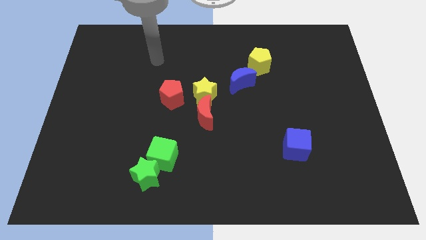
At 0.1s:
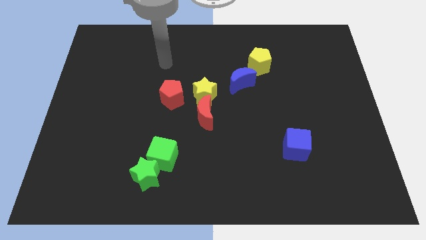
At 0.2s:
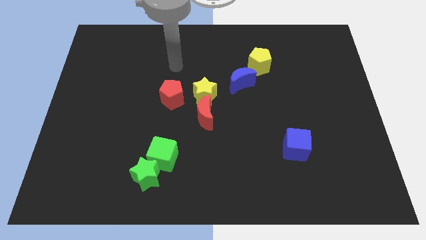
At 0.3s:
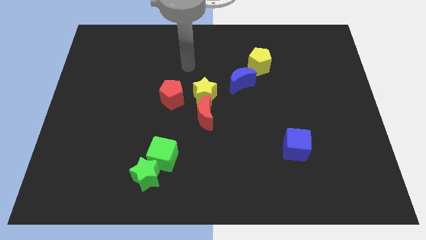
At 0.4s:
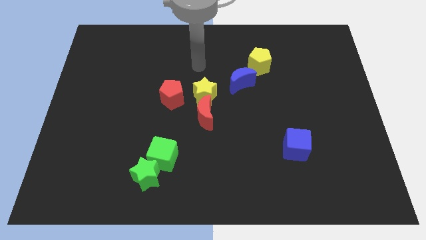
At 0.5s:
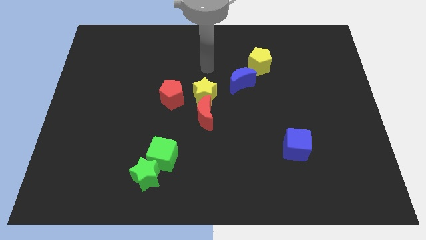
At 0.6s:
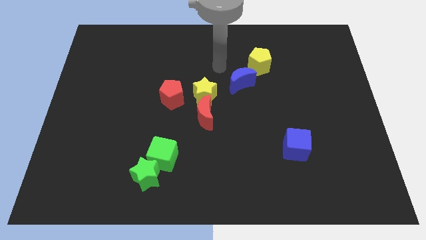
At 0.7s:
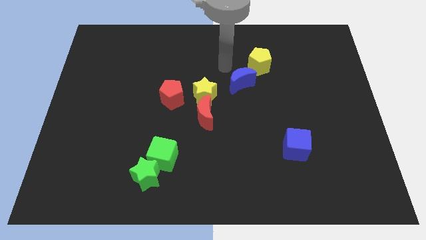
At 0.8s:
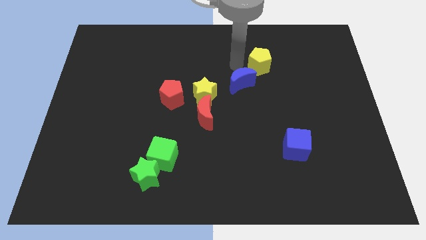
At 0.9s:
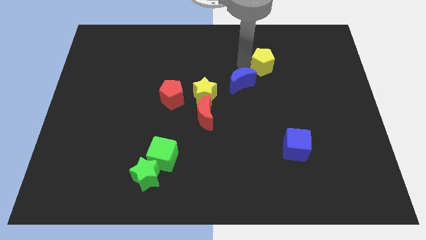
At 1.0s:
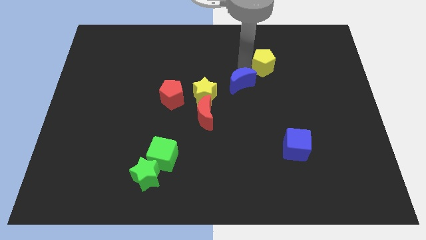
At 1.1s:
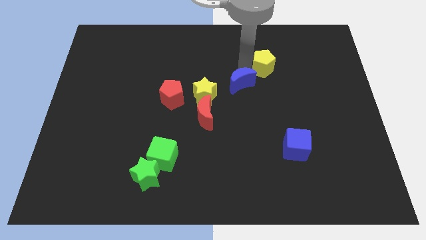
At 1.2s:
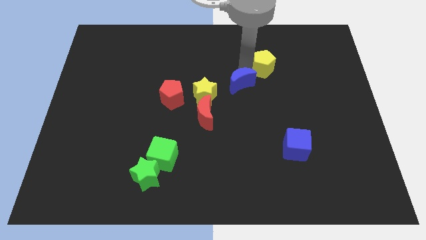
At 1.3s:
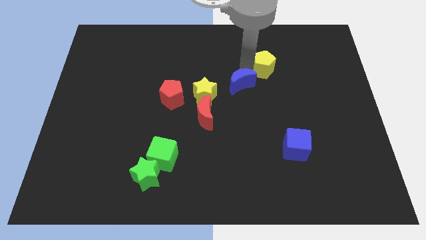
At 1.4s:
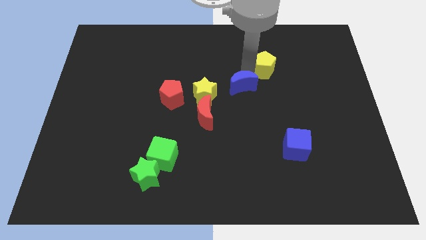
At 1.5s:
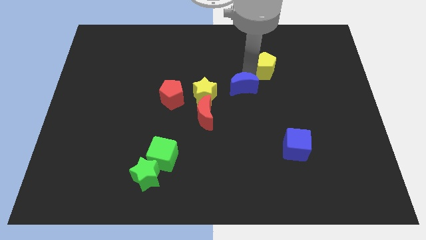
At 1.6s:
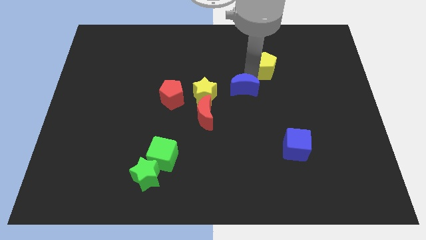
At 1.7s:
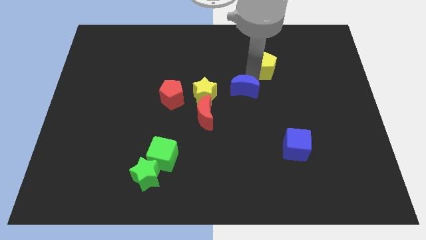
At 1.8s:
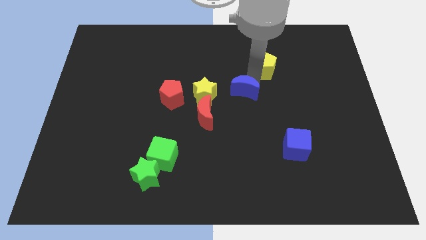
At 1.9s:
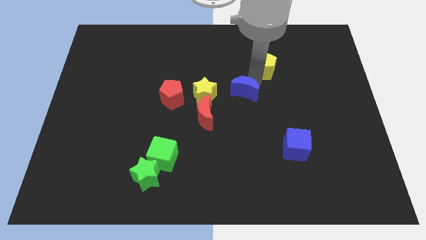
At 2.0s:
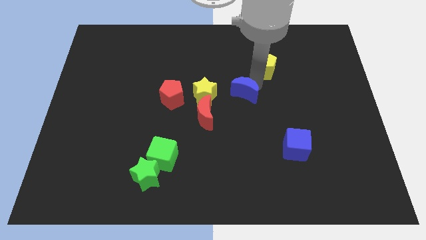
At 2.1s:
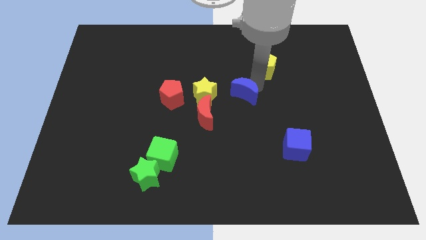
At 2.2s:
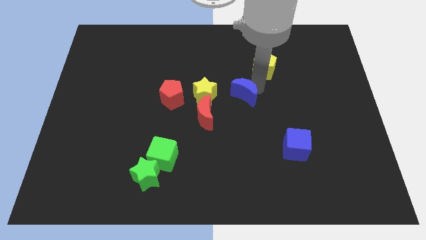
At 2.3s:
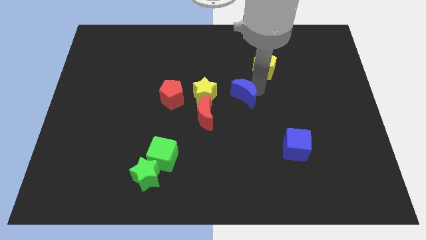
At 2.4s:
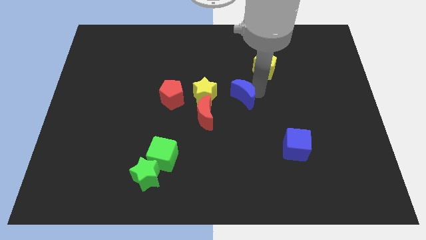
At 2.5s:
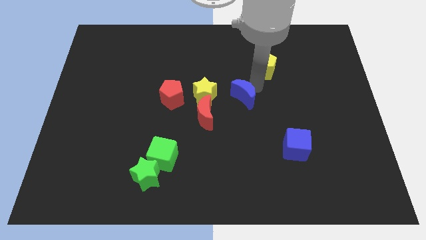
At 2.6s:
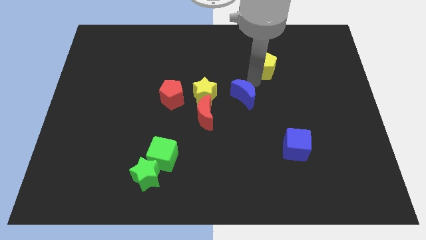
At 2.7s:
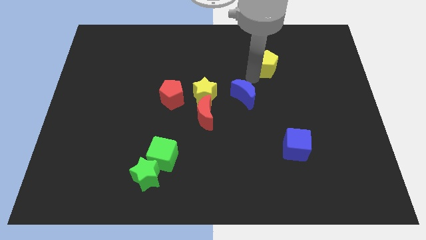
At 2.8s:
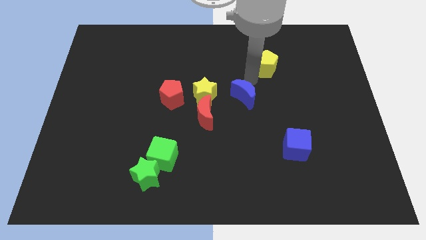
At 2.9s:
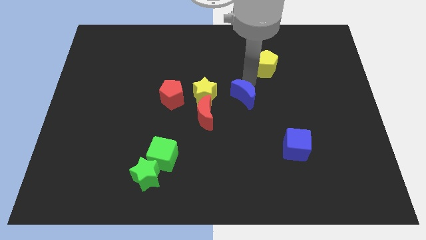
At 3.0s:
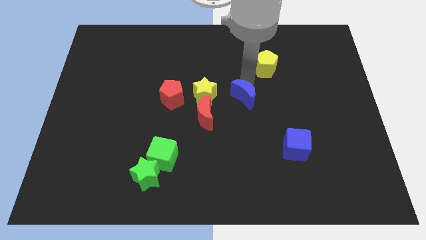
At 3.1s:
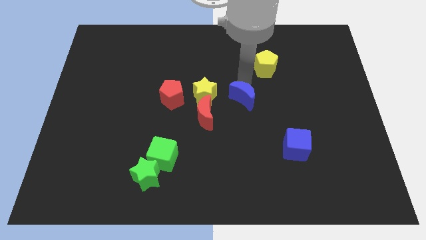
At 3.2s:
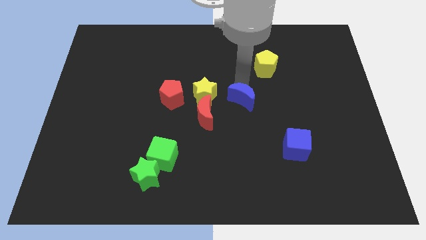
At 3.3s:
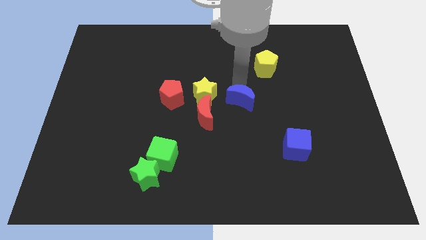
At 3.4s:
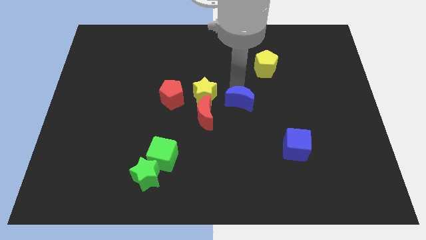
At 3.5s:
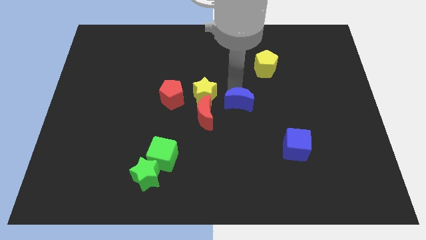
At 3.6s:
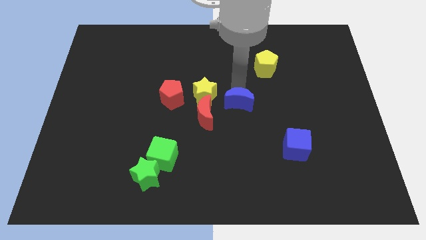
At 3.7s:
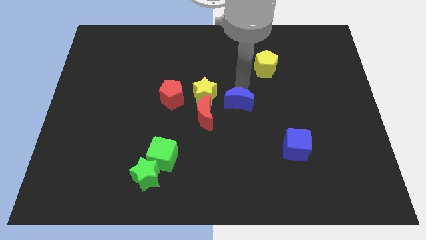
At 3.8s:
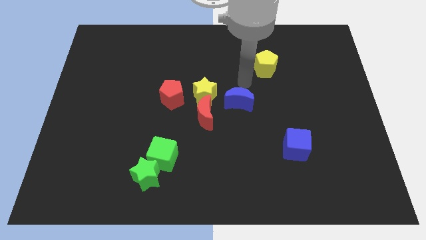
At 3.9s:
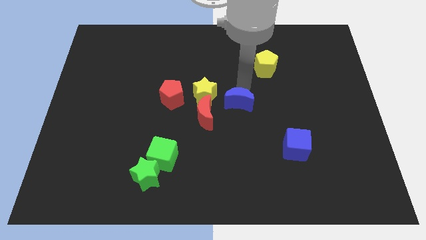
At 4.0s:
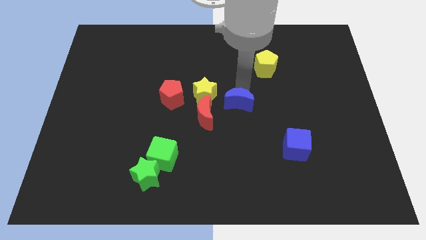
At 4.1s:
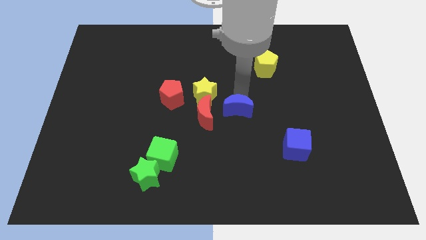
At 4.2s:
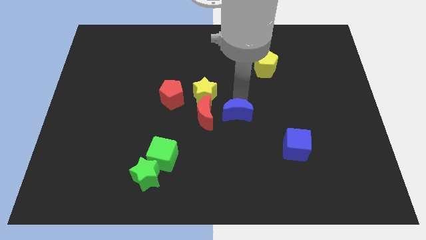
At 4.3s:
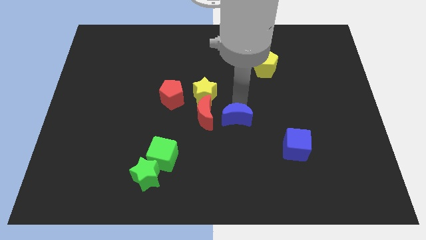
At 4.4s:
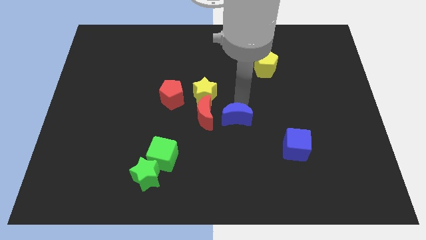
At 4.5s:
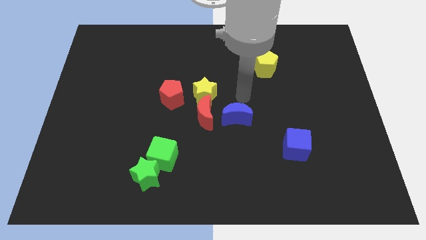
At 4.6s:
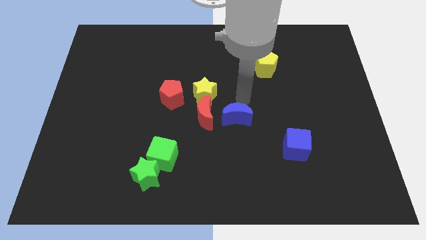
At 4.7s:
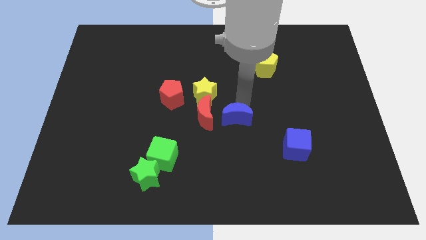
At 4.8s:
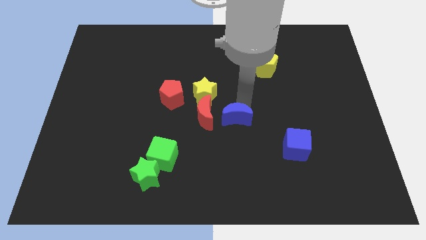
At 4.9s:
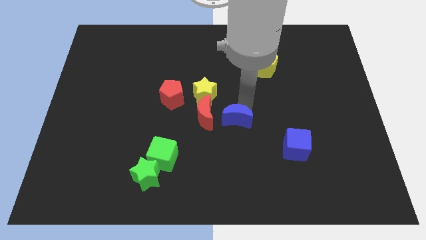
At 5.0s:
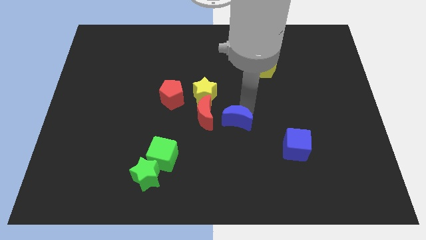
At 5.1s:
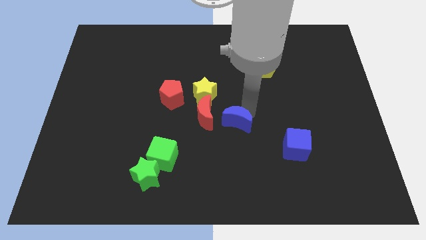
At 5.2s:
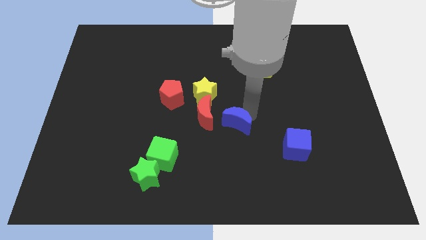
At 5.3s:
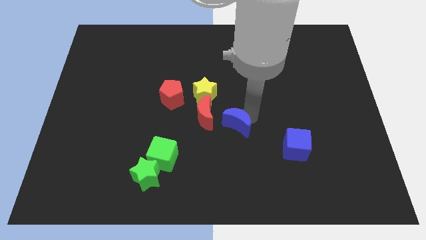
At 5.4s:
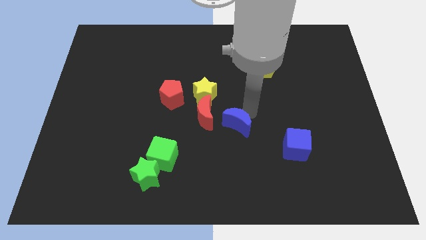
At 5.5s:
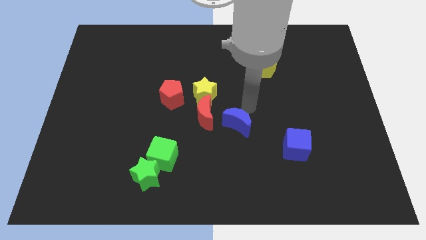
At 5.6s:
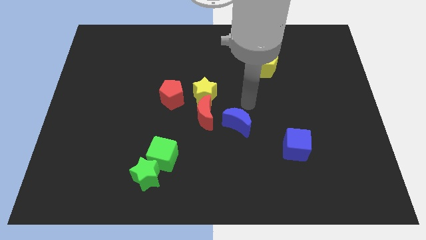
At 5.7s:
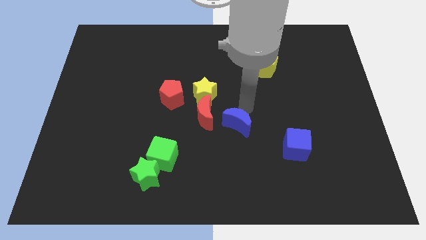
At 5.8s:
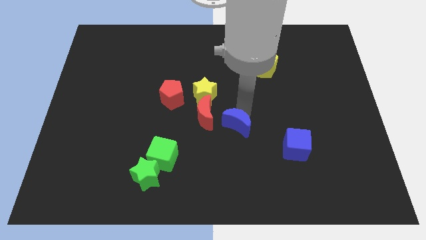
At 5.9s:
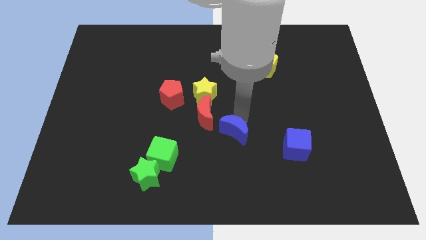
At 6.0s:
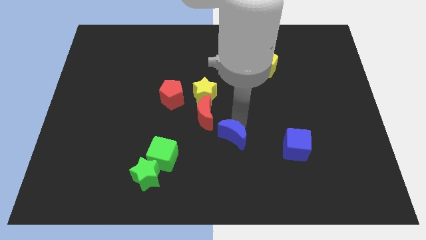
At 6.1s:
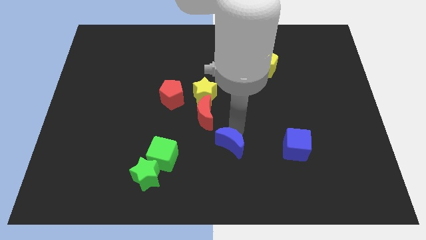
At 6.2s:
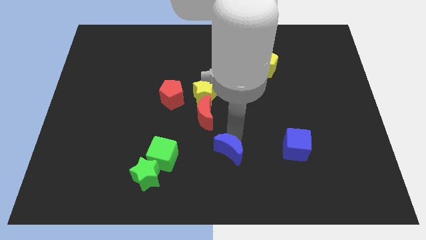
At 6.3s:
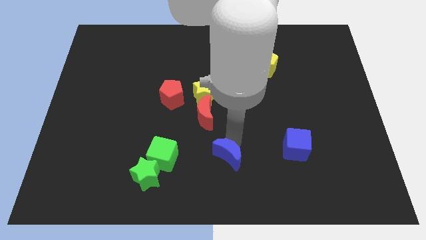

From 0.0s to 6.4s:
move the blue moon to the bottom side

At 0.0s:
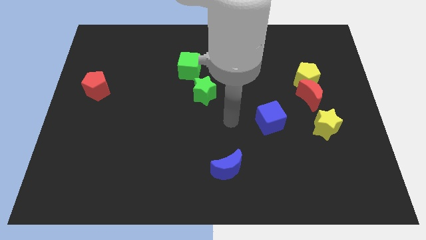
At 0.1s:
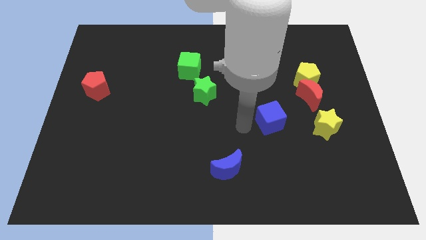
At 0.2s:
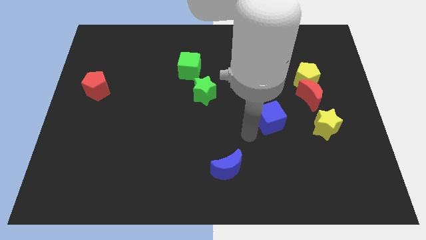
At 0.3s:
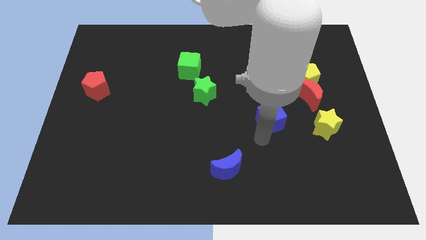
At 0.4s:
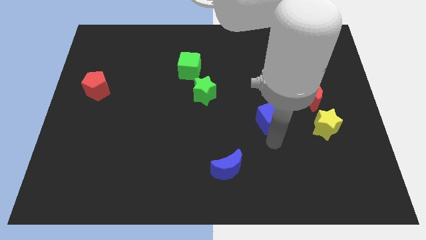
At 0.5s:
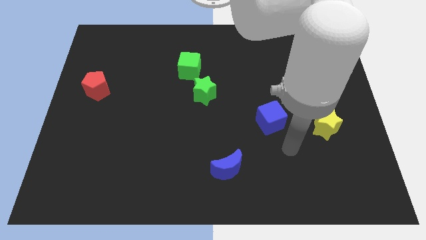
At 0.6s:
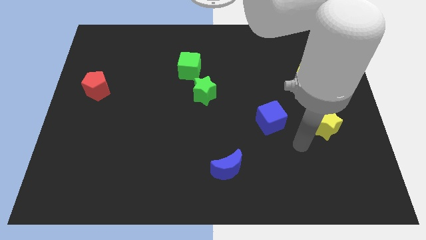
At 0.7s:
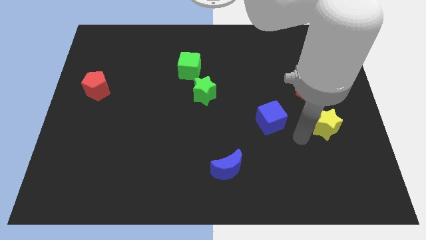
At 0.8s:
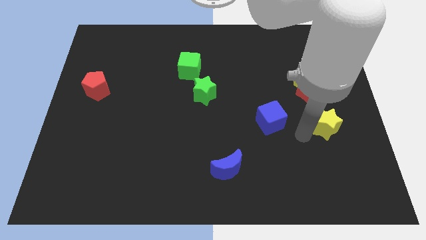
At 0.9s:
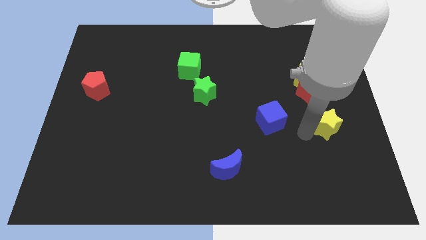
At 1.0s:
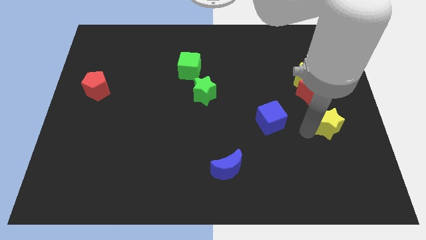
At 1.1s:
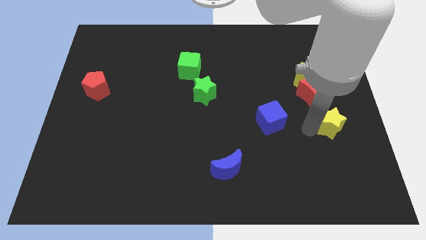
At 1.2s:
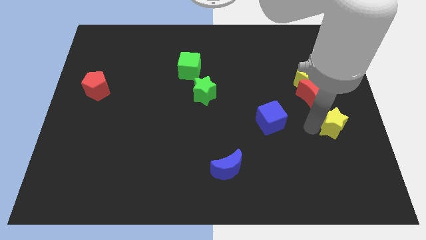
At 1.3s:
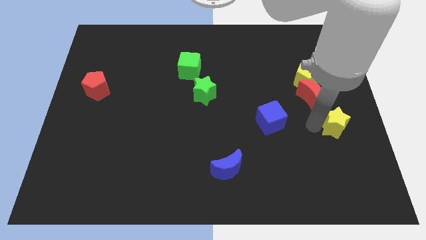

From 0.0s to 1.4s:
put the yellow star to the right side of the board
